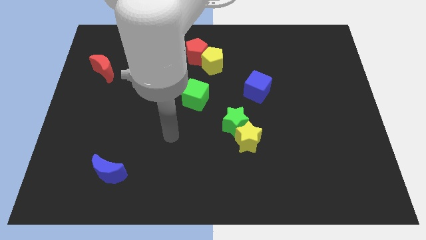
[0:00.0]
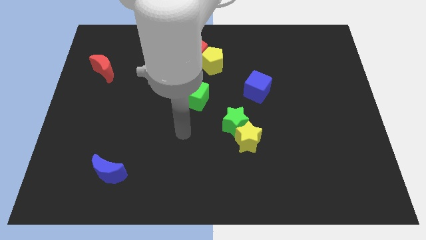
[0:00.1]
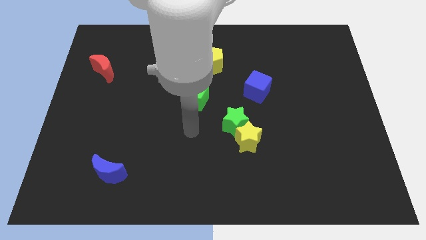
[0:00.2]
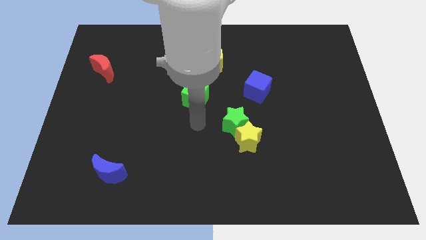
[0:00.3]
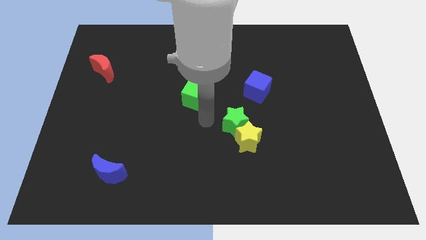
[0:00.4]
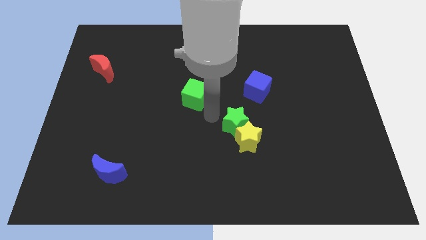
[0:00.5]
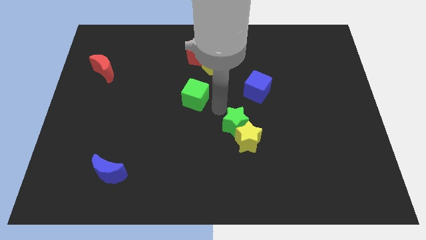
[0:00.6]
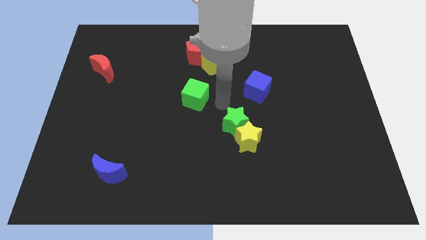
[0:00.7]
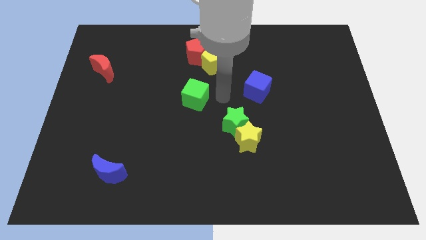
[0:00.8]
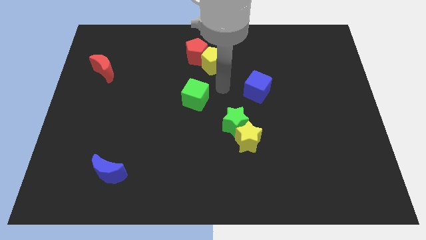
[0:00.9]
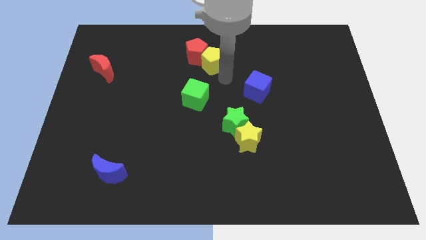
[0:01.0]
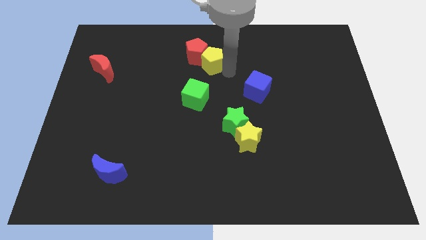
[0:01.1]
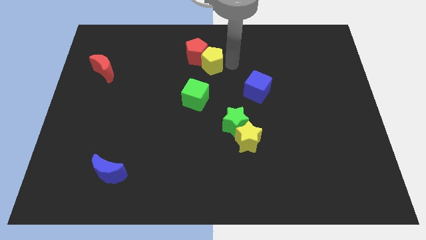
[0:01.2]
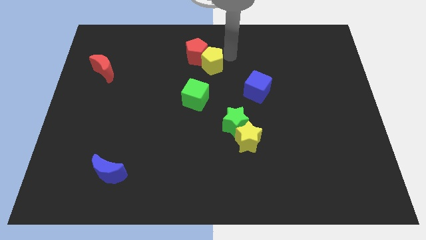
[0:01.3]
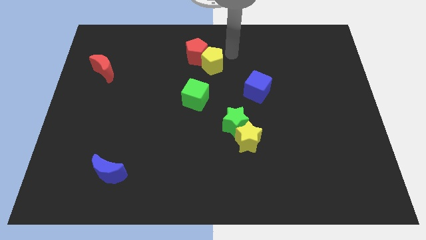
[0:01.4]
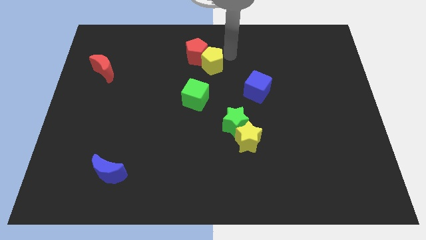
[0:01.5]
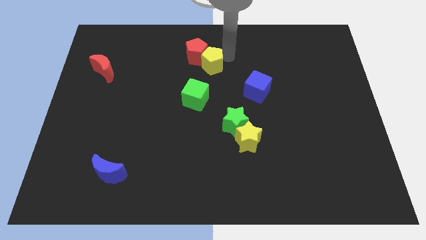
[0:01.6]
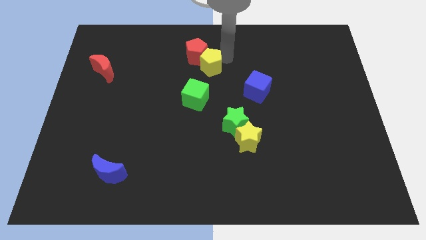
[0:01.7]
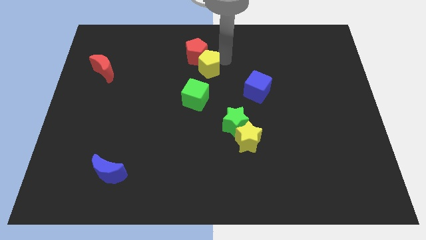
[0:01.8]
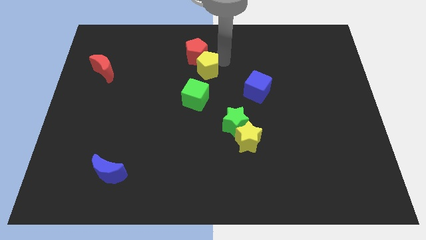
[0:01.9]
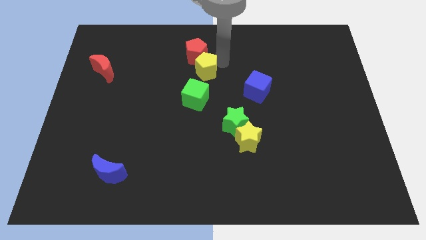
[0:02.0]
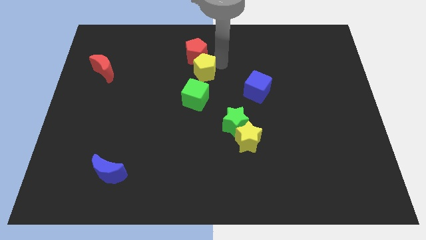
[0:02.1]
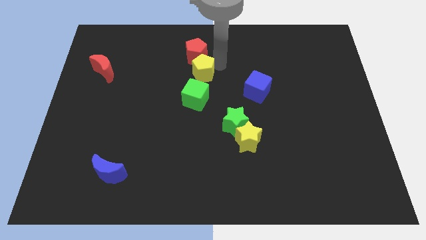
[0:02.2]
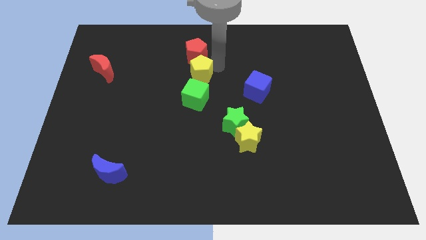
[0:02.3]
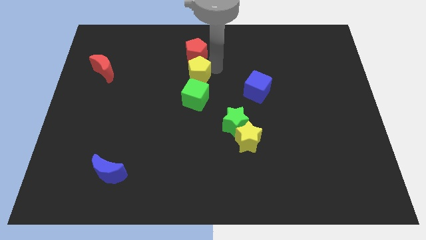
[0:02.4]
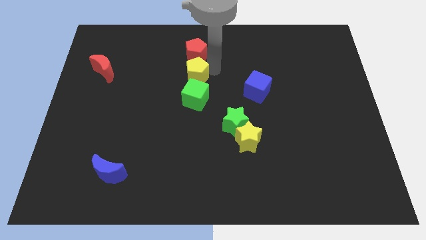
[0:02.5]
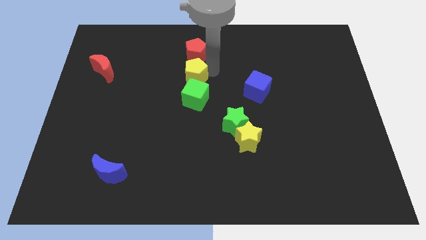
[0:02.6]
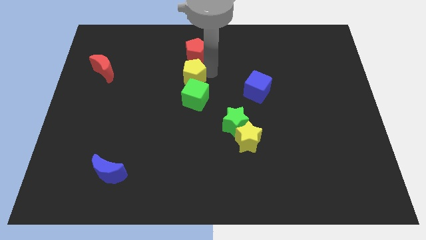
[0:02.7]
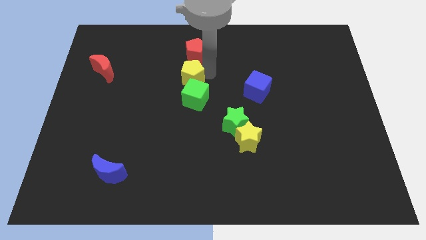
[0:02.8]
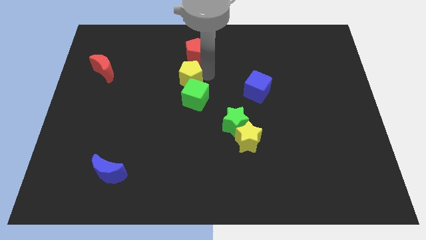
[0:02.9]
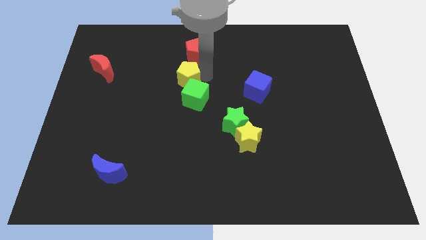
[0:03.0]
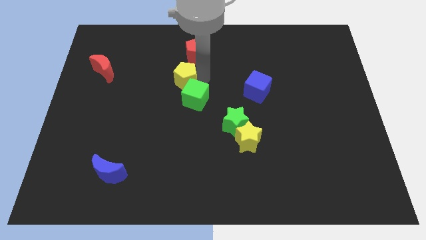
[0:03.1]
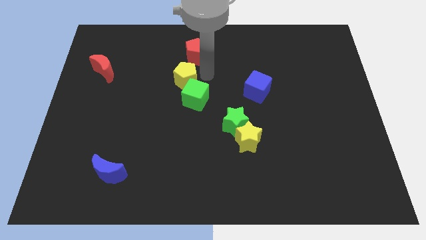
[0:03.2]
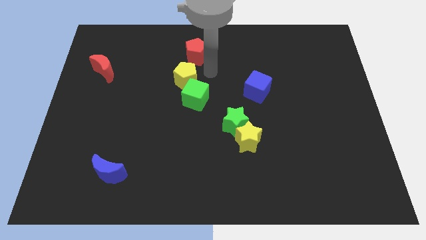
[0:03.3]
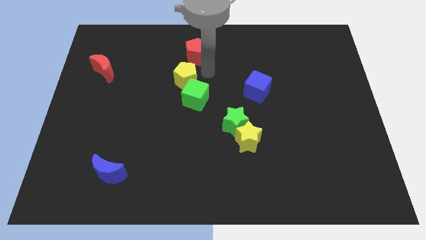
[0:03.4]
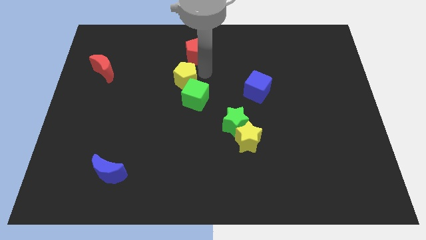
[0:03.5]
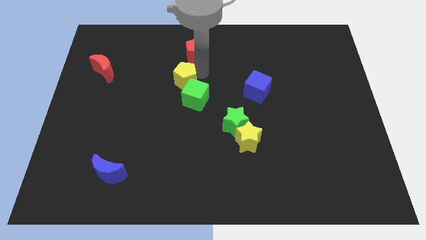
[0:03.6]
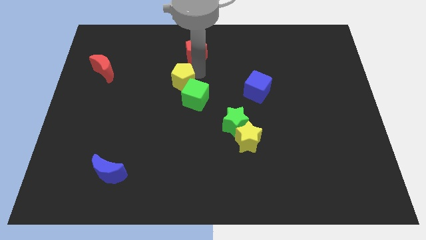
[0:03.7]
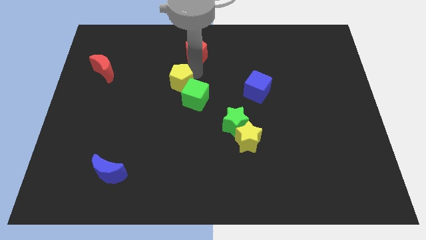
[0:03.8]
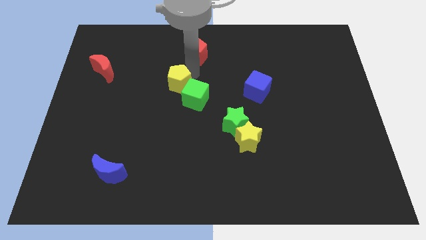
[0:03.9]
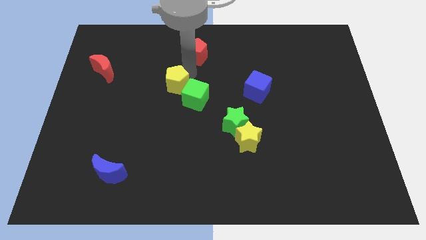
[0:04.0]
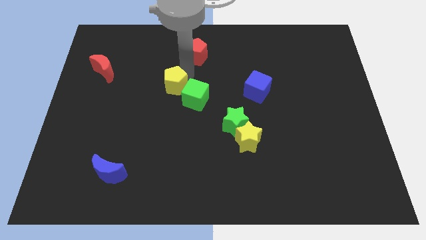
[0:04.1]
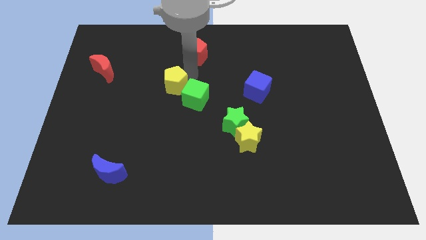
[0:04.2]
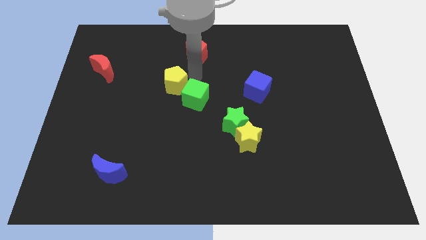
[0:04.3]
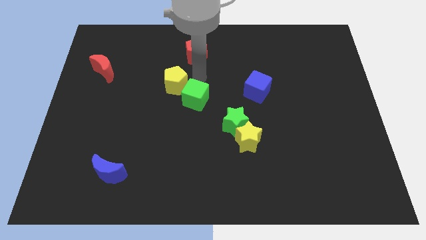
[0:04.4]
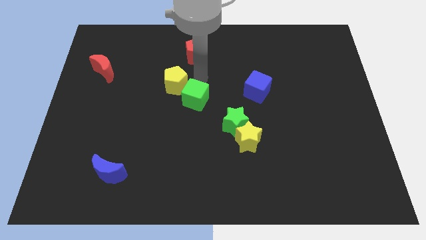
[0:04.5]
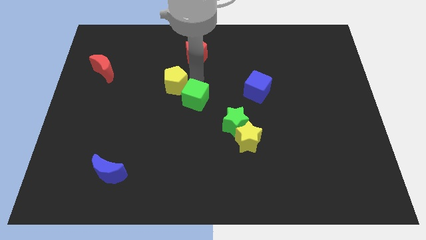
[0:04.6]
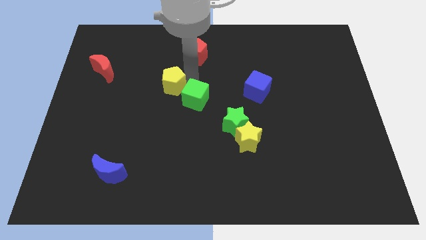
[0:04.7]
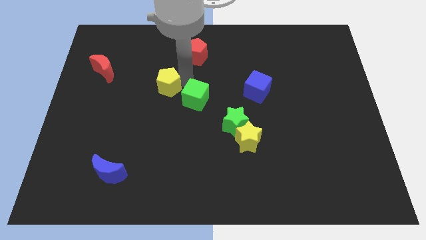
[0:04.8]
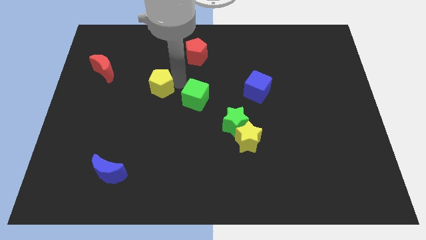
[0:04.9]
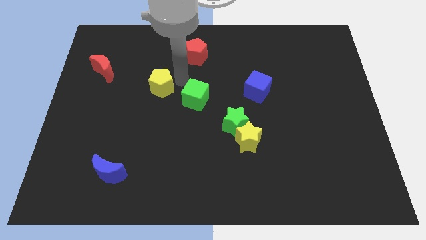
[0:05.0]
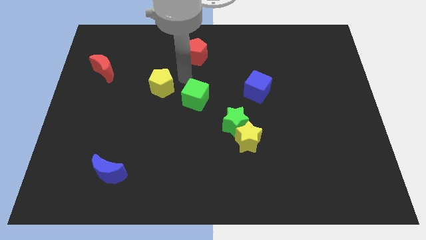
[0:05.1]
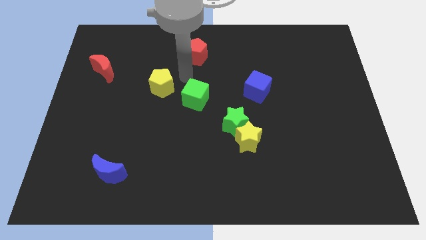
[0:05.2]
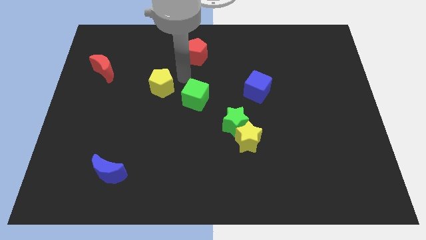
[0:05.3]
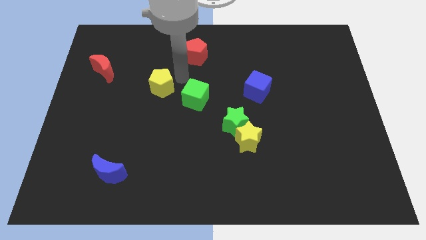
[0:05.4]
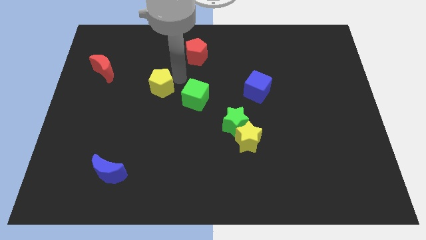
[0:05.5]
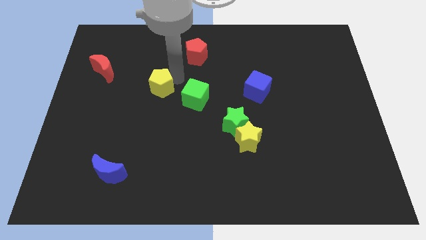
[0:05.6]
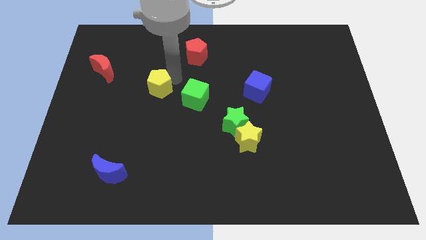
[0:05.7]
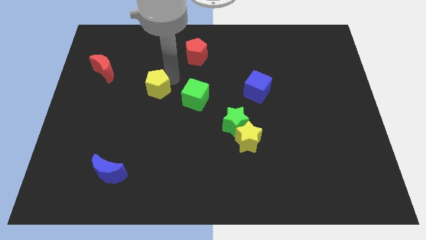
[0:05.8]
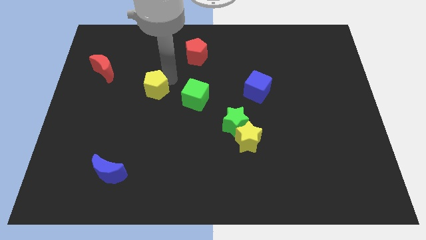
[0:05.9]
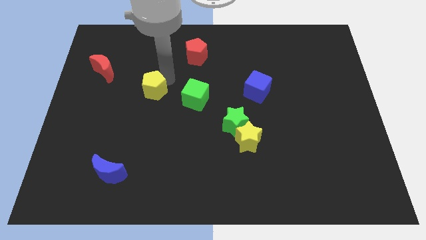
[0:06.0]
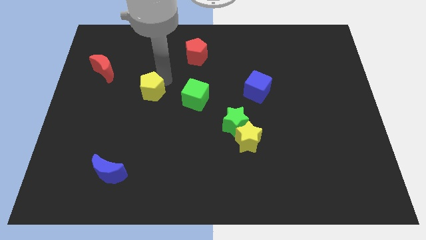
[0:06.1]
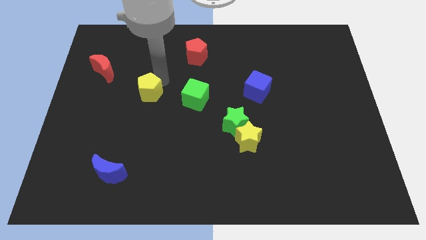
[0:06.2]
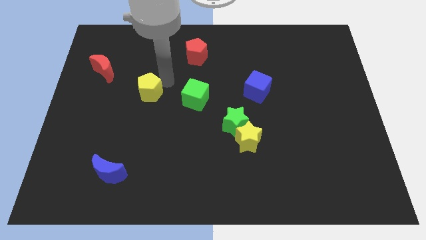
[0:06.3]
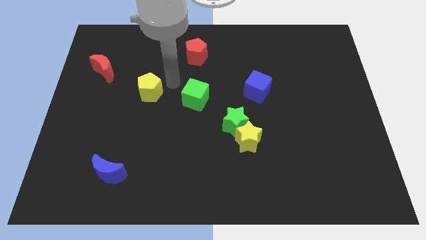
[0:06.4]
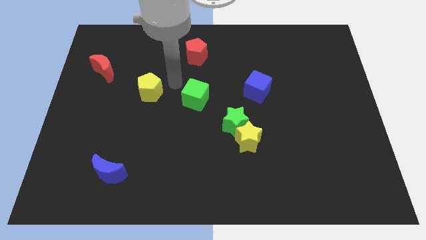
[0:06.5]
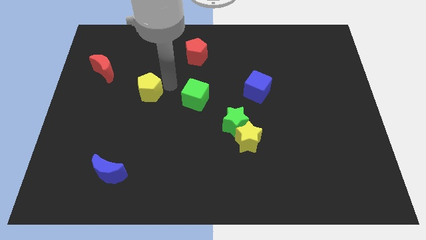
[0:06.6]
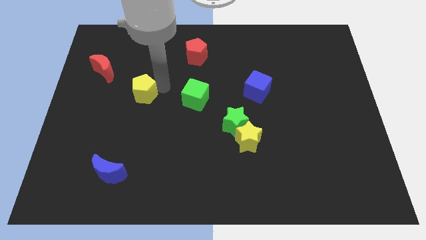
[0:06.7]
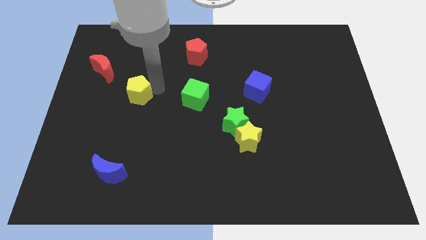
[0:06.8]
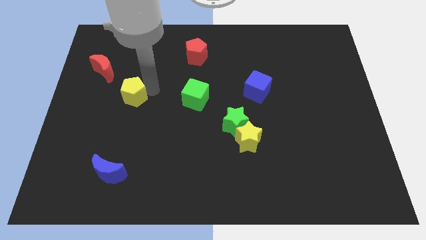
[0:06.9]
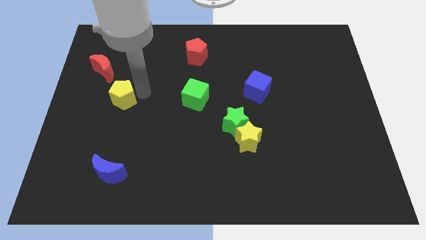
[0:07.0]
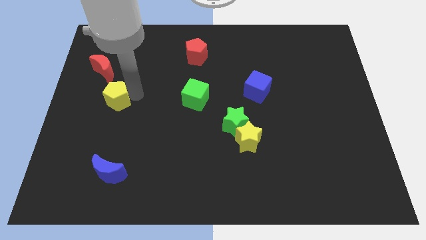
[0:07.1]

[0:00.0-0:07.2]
move the yellow pentagon below the red moon

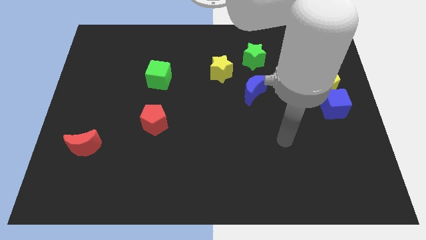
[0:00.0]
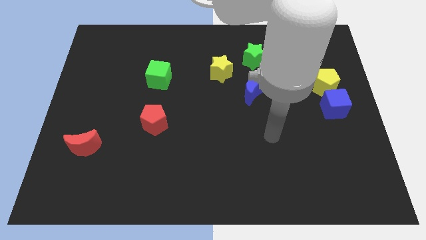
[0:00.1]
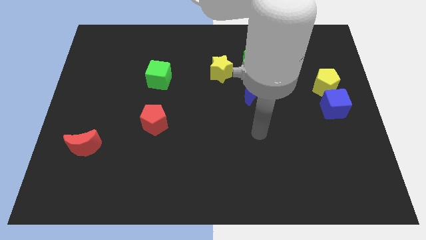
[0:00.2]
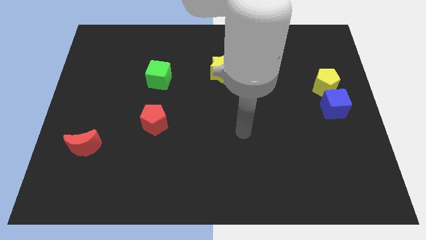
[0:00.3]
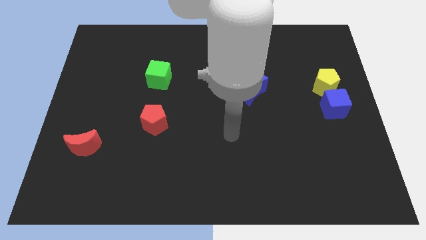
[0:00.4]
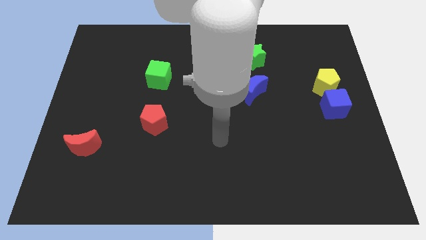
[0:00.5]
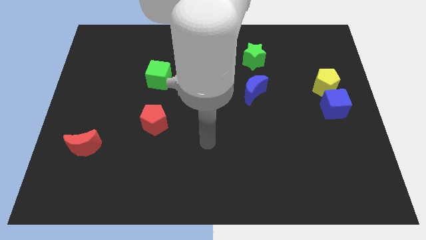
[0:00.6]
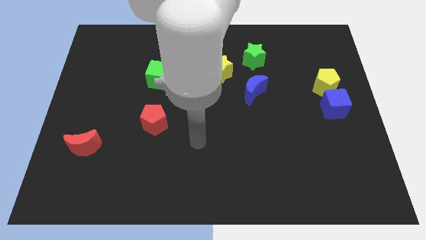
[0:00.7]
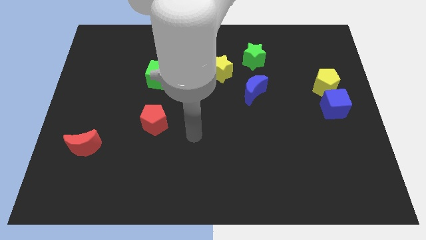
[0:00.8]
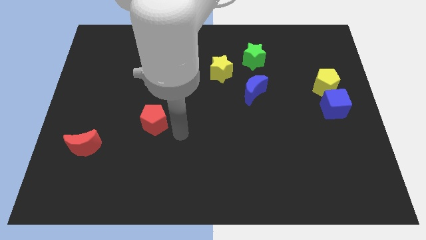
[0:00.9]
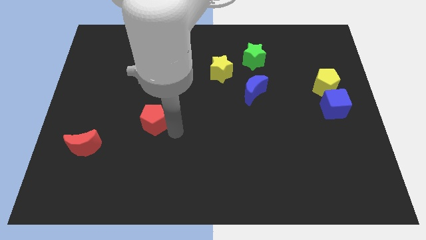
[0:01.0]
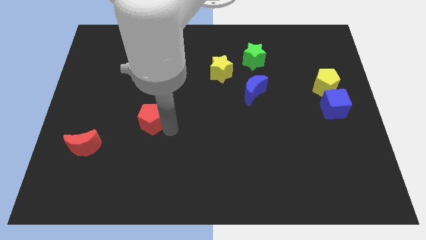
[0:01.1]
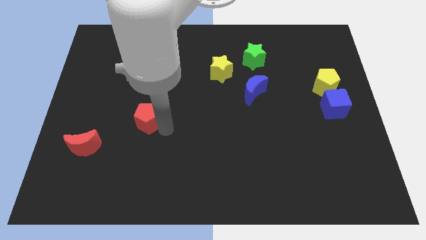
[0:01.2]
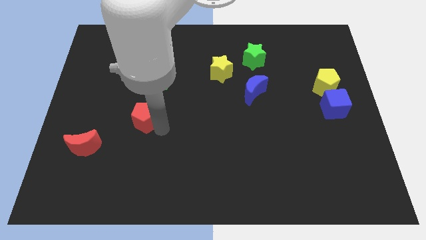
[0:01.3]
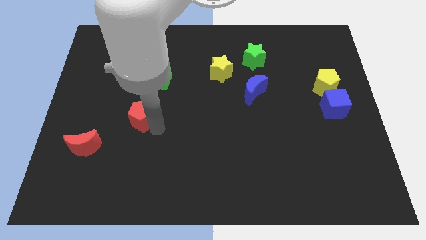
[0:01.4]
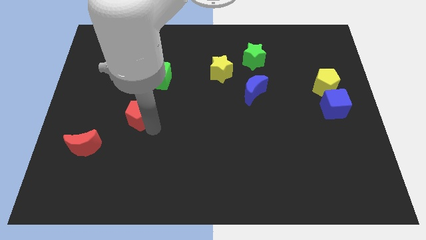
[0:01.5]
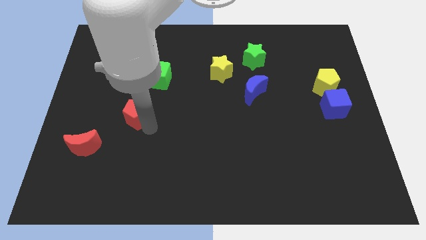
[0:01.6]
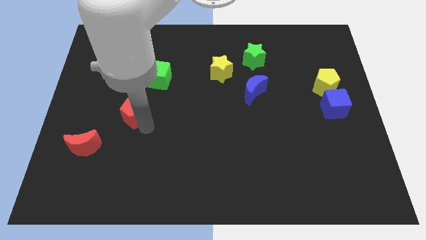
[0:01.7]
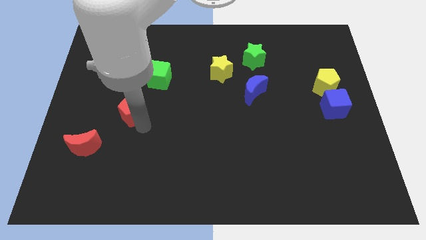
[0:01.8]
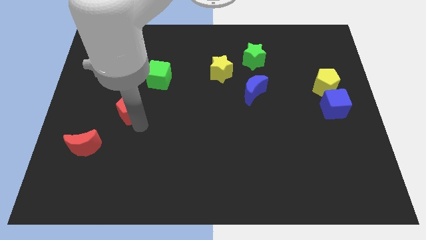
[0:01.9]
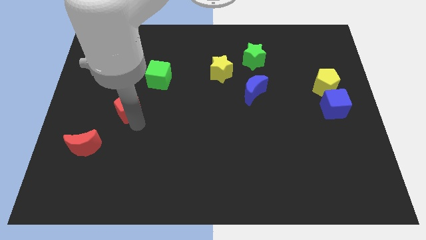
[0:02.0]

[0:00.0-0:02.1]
slide the red pentagon to the bottom left of the green cube
